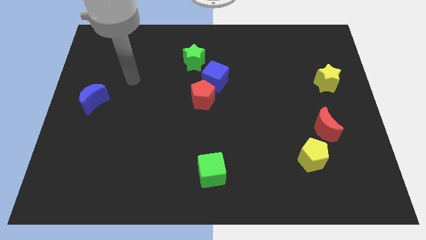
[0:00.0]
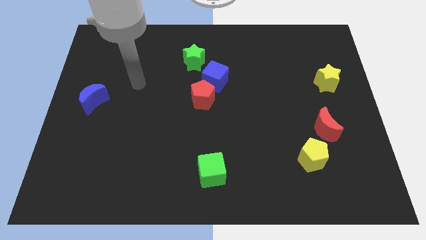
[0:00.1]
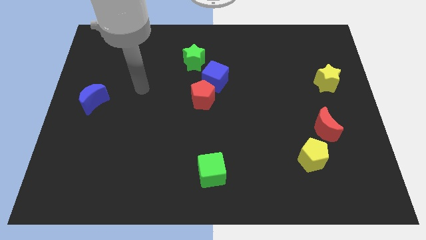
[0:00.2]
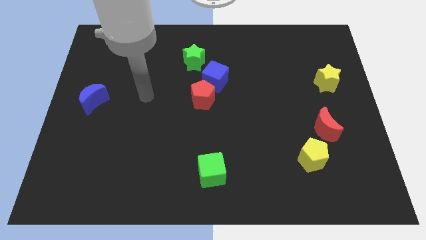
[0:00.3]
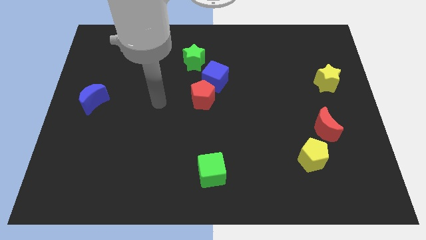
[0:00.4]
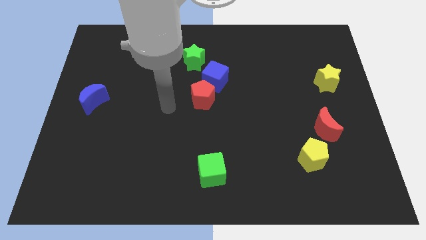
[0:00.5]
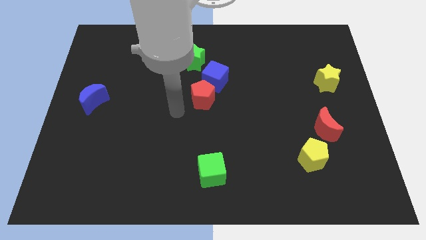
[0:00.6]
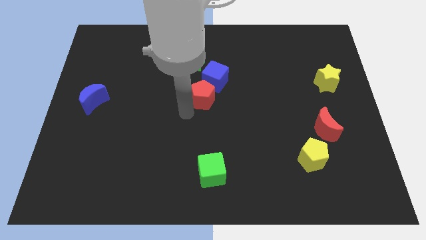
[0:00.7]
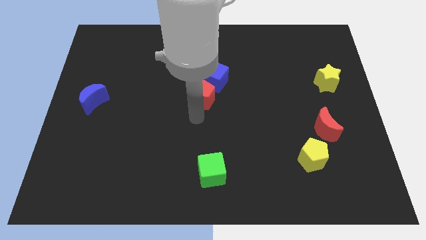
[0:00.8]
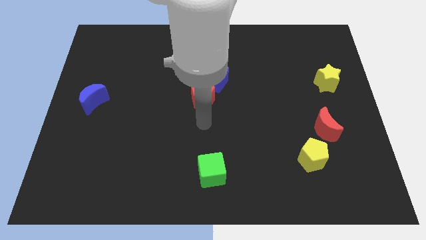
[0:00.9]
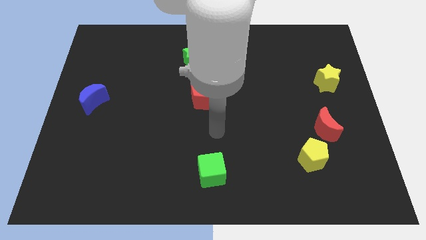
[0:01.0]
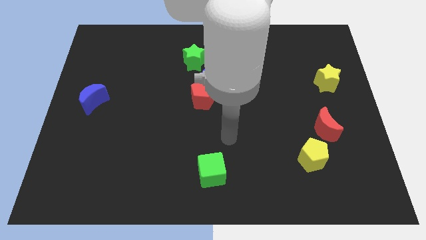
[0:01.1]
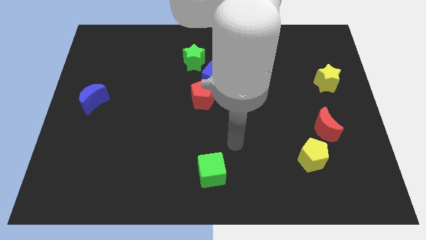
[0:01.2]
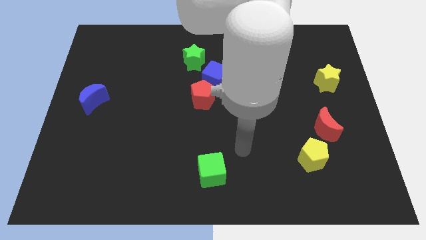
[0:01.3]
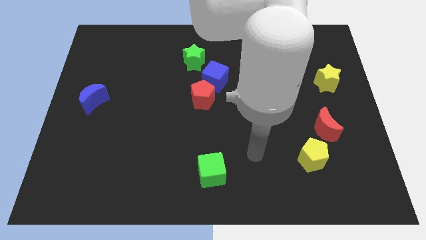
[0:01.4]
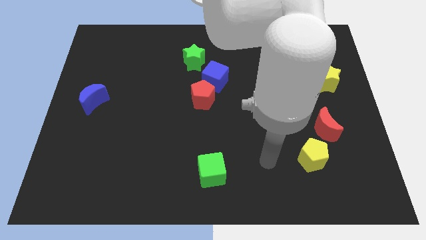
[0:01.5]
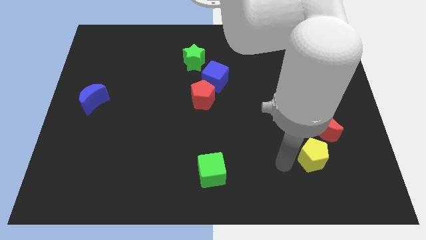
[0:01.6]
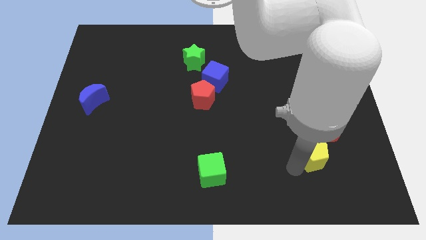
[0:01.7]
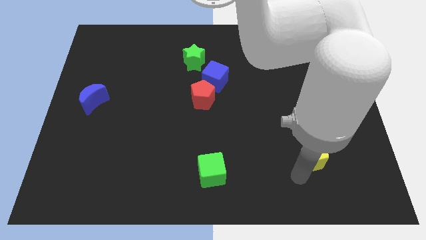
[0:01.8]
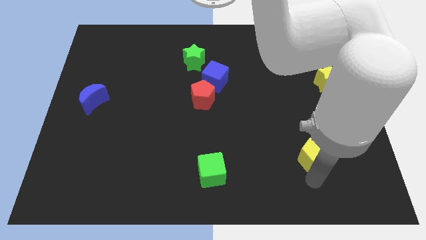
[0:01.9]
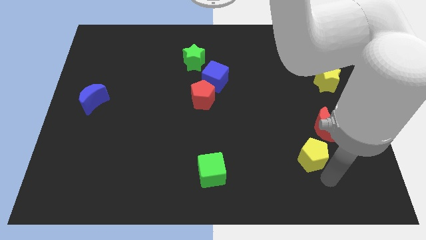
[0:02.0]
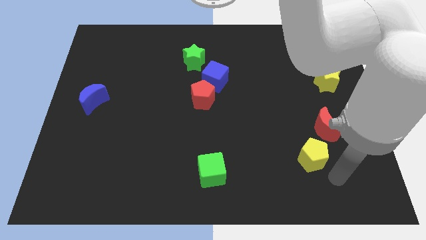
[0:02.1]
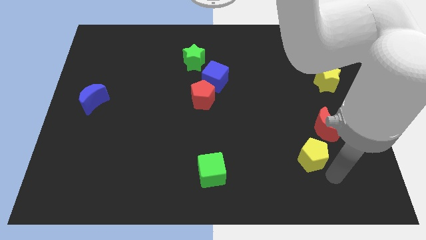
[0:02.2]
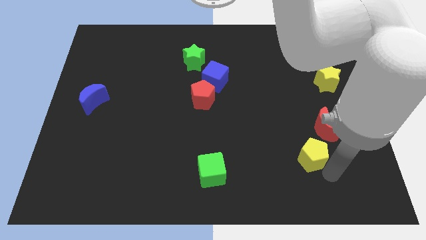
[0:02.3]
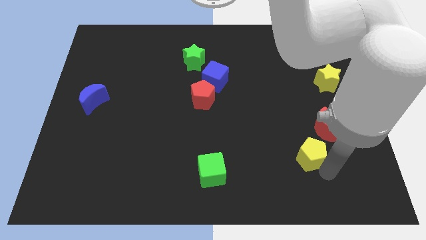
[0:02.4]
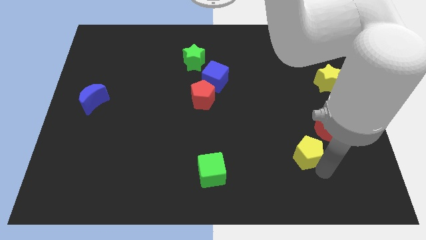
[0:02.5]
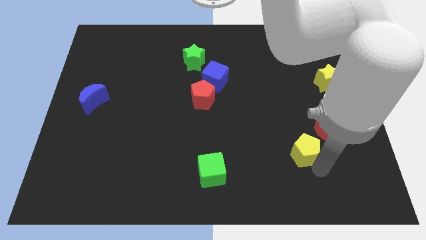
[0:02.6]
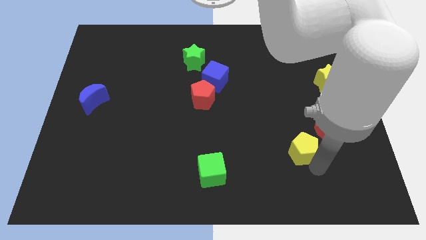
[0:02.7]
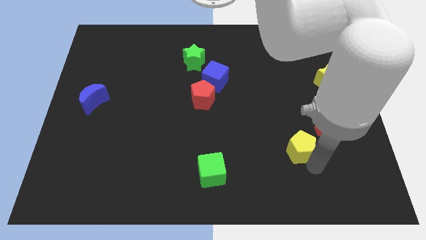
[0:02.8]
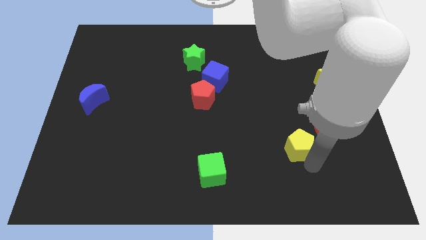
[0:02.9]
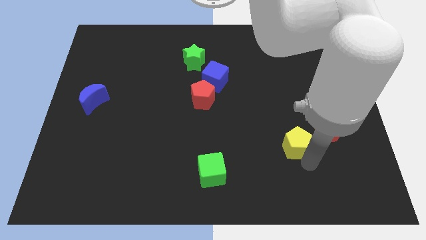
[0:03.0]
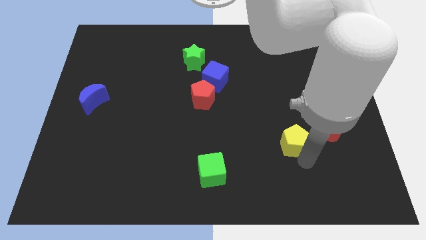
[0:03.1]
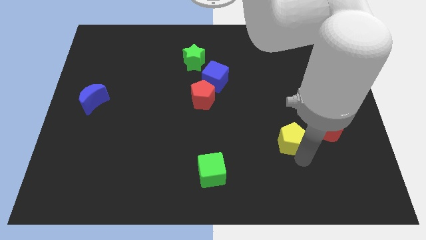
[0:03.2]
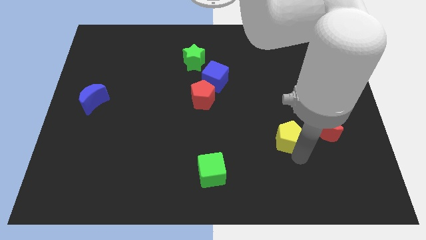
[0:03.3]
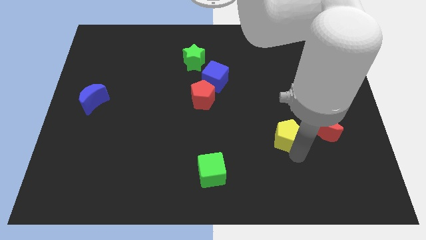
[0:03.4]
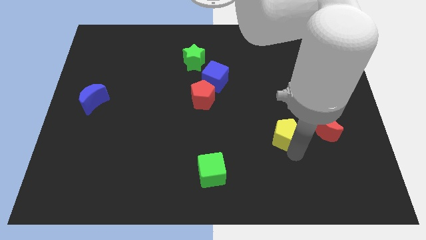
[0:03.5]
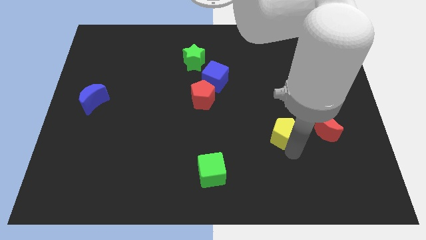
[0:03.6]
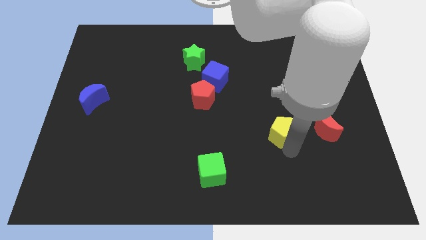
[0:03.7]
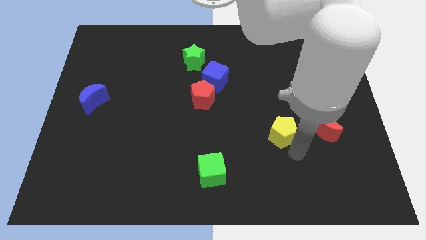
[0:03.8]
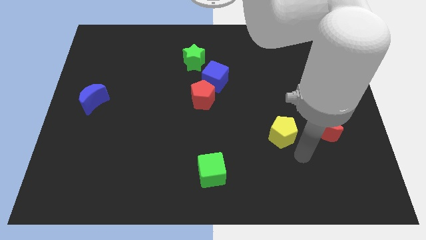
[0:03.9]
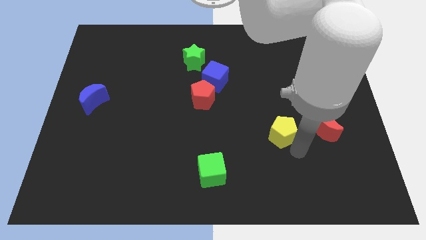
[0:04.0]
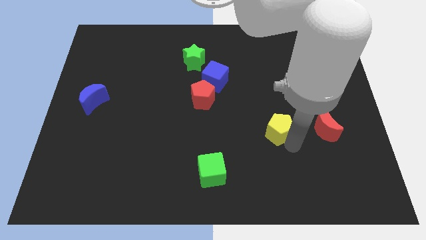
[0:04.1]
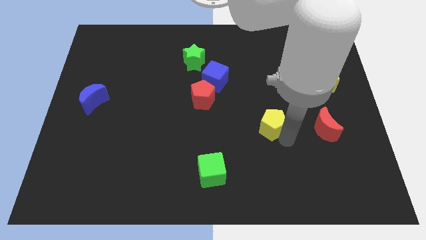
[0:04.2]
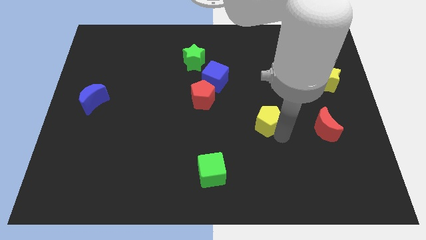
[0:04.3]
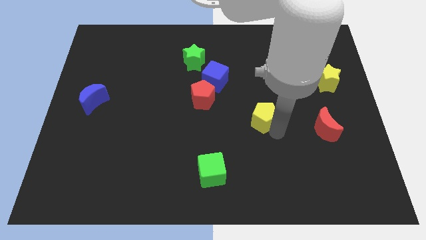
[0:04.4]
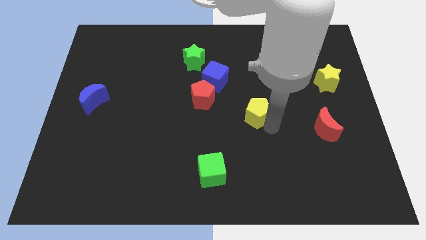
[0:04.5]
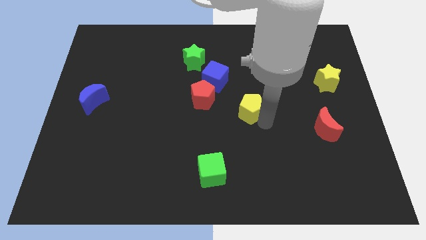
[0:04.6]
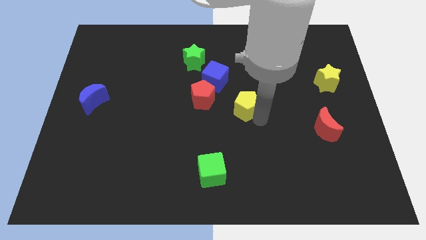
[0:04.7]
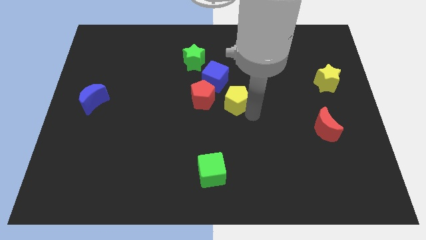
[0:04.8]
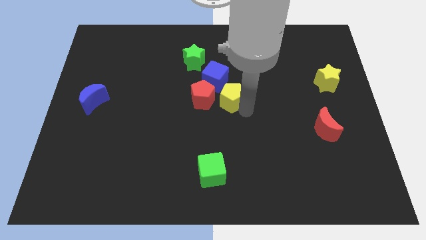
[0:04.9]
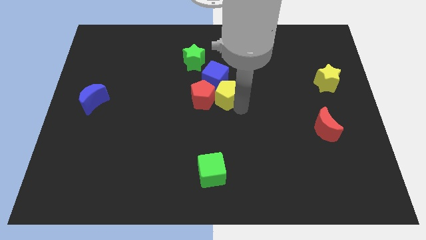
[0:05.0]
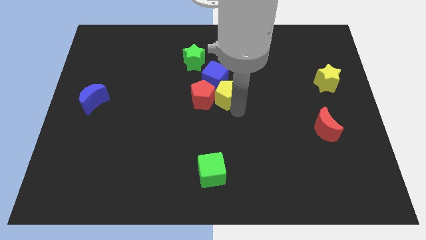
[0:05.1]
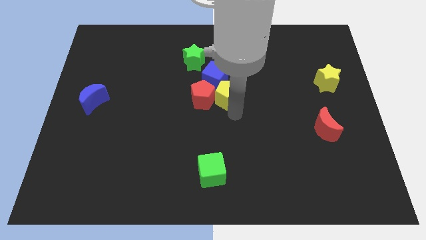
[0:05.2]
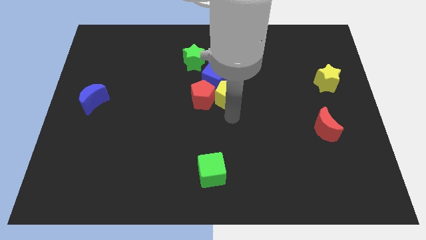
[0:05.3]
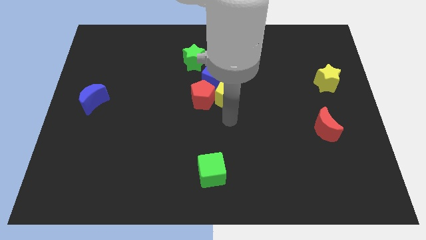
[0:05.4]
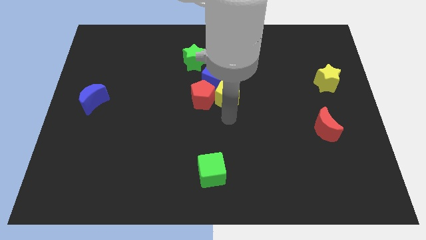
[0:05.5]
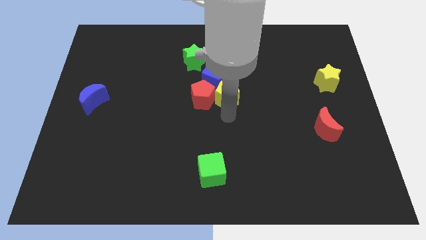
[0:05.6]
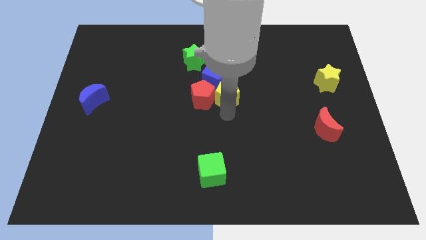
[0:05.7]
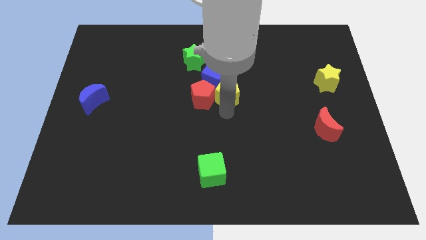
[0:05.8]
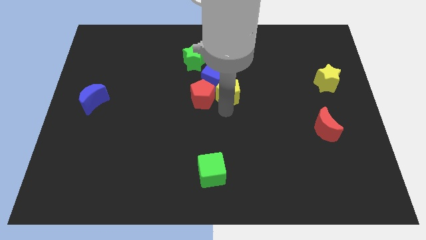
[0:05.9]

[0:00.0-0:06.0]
slide the yellow pentagon close to the blue cube

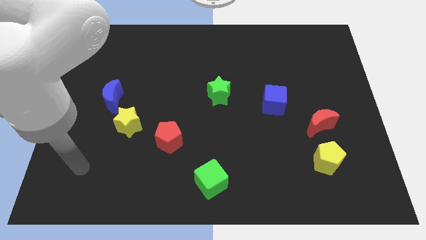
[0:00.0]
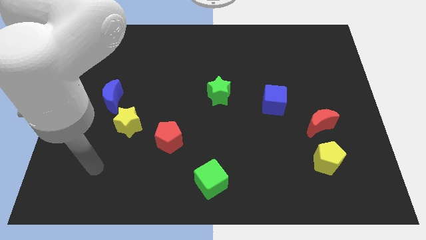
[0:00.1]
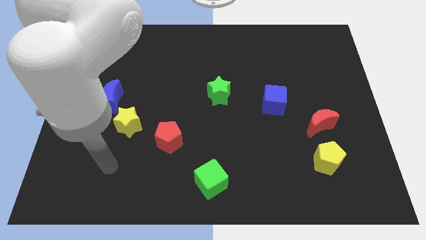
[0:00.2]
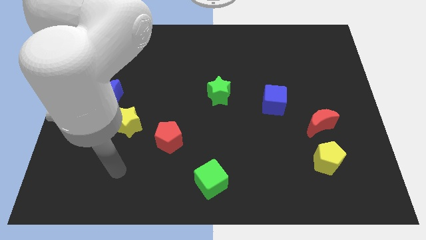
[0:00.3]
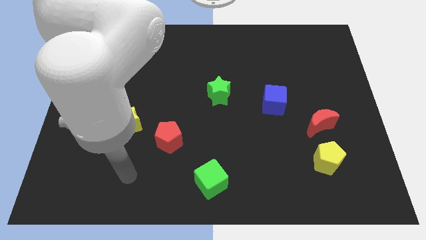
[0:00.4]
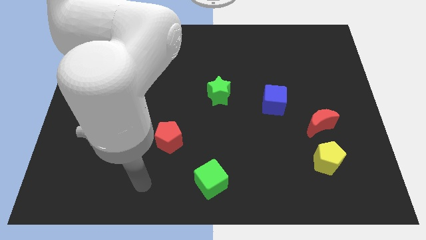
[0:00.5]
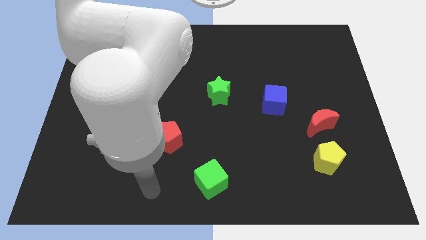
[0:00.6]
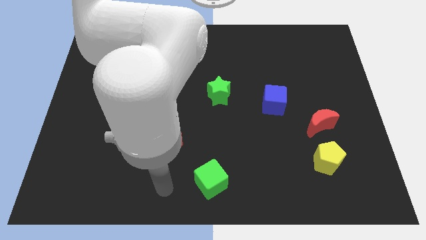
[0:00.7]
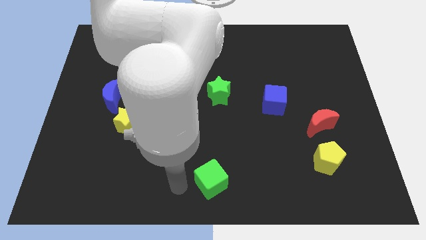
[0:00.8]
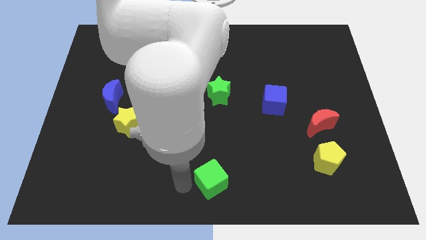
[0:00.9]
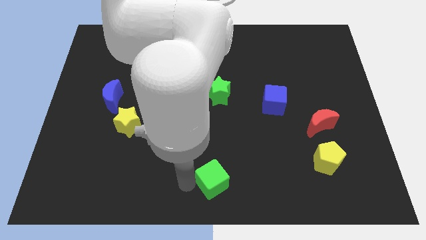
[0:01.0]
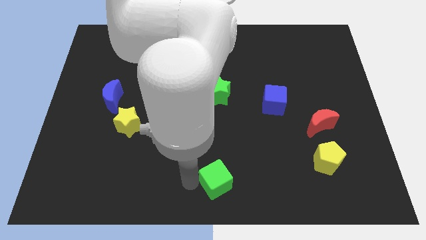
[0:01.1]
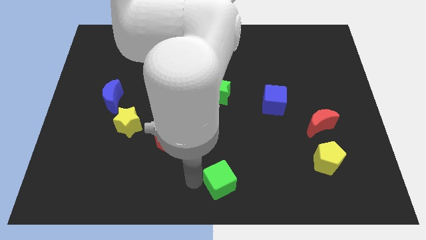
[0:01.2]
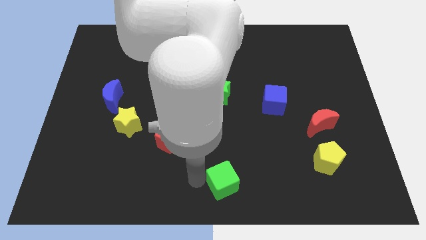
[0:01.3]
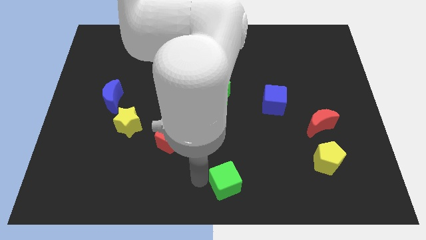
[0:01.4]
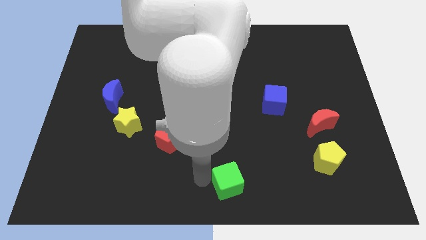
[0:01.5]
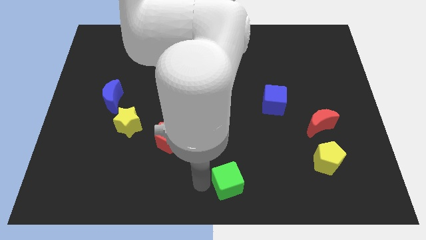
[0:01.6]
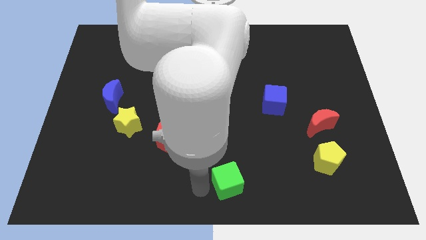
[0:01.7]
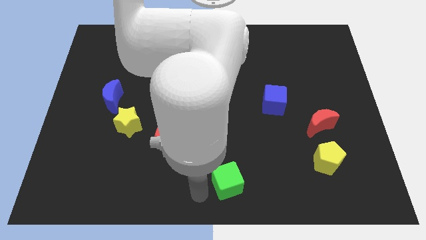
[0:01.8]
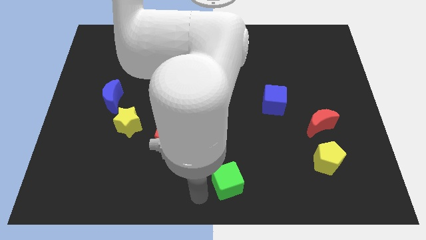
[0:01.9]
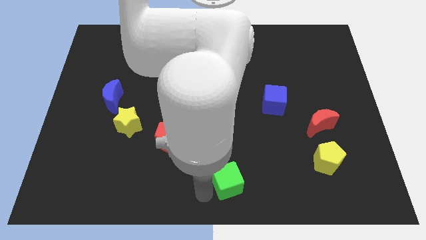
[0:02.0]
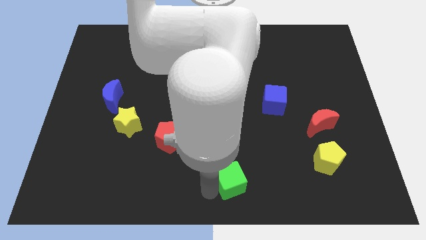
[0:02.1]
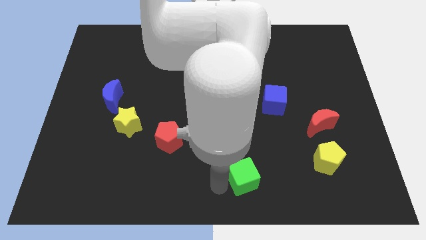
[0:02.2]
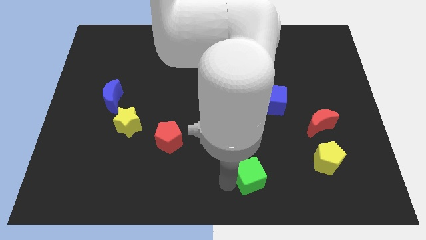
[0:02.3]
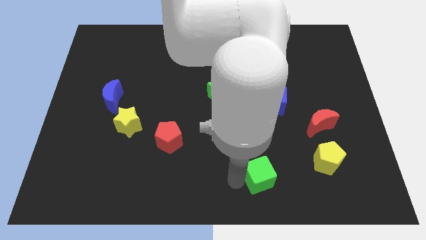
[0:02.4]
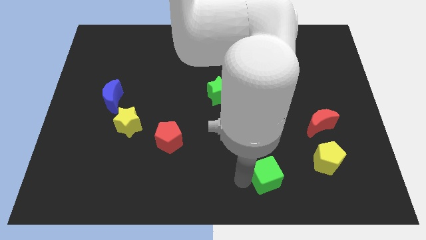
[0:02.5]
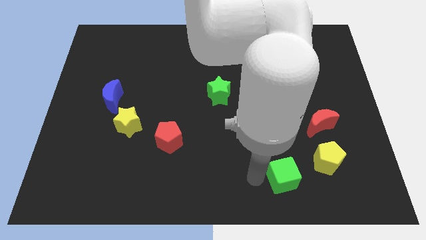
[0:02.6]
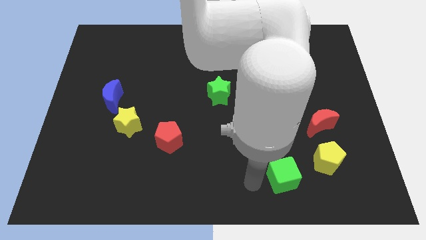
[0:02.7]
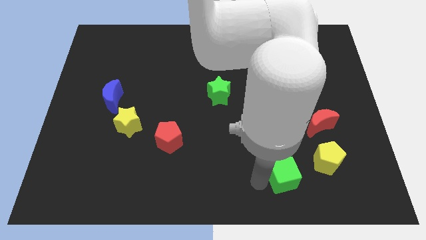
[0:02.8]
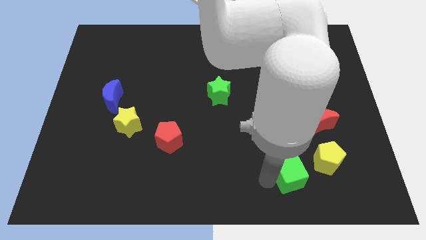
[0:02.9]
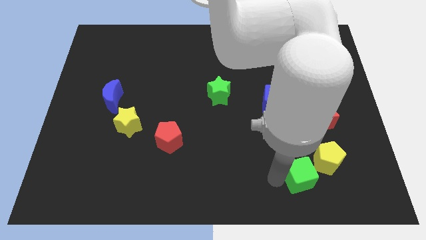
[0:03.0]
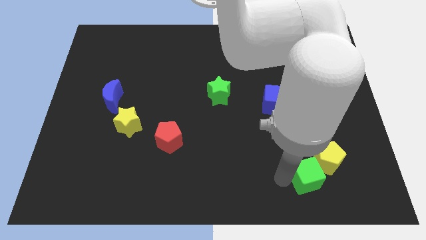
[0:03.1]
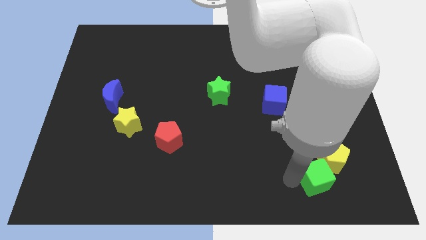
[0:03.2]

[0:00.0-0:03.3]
push the green cube towards the yellow pentagon
